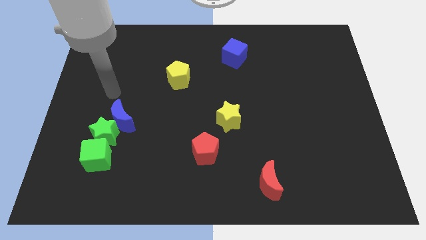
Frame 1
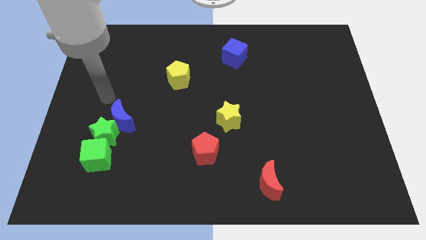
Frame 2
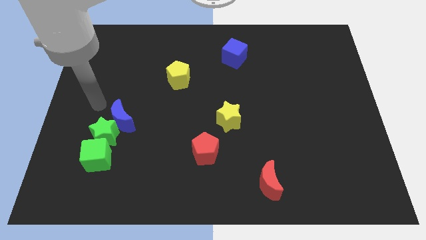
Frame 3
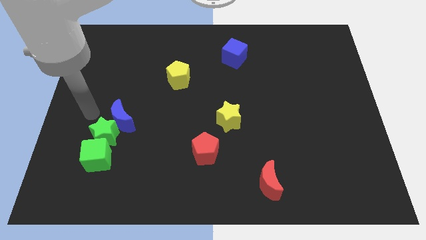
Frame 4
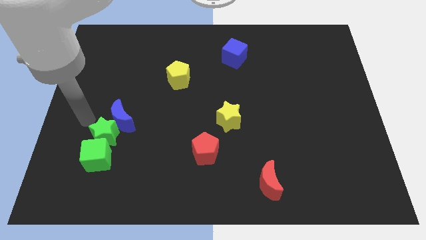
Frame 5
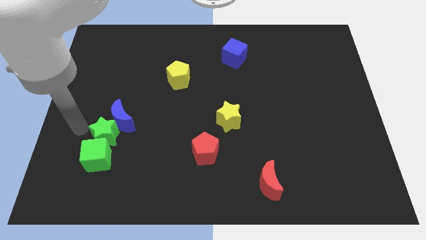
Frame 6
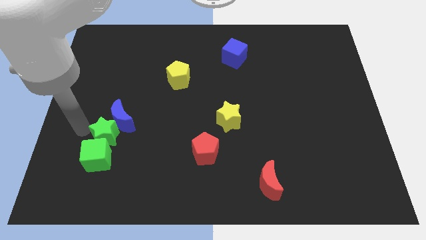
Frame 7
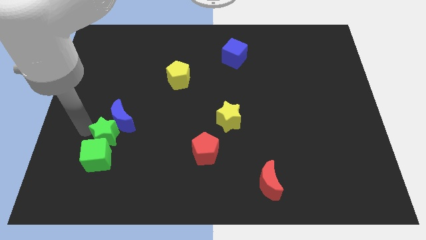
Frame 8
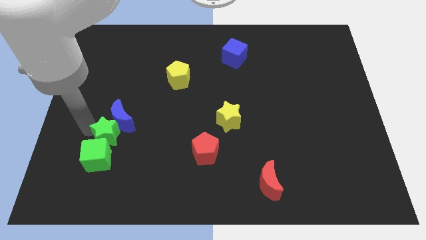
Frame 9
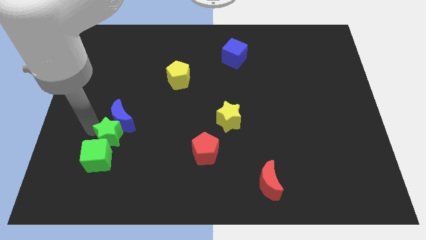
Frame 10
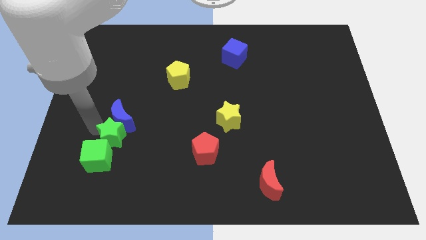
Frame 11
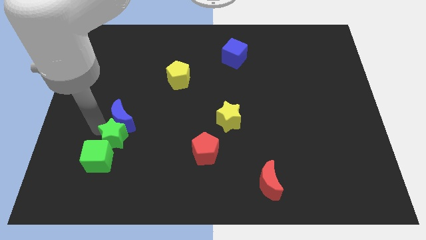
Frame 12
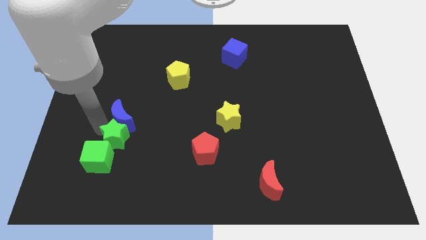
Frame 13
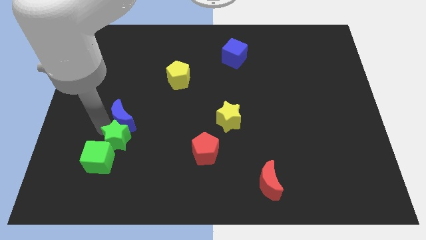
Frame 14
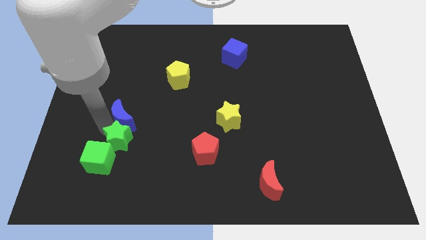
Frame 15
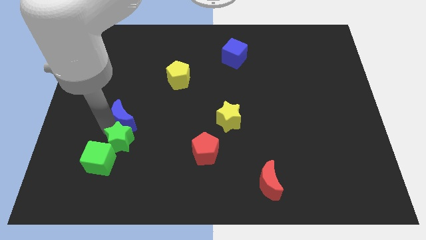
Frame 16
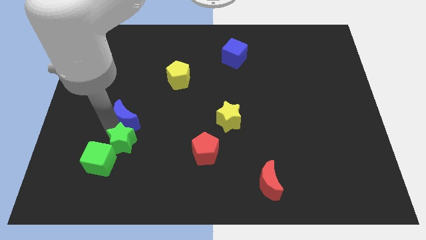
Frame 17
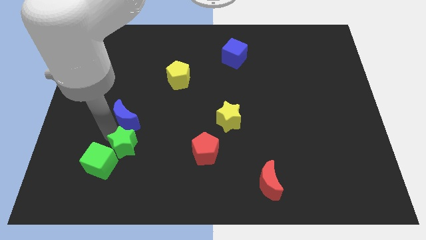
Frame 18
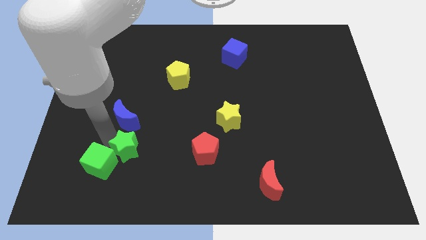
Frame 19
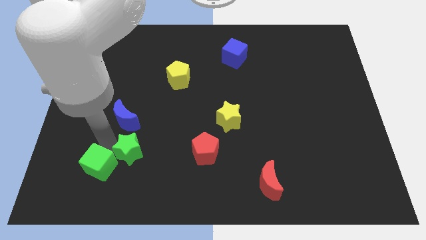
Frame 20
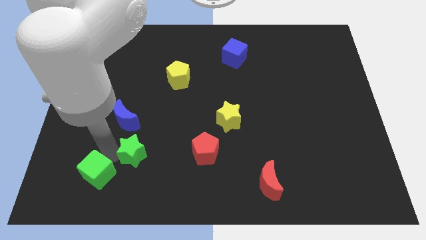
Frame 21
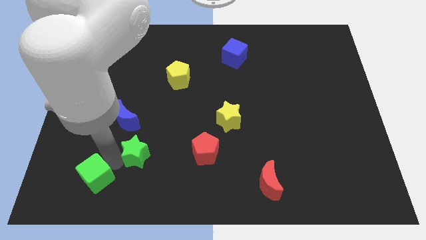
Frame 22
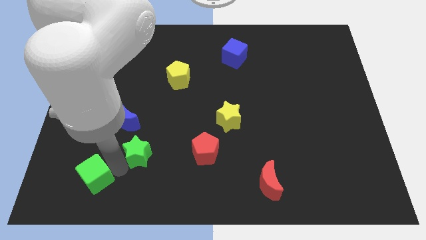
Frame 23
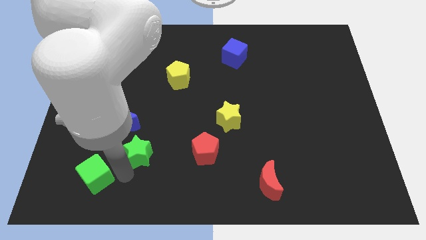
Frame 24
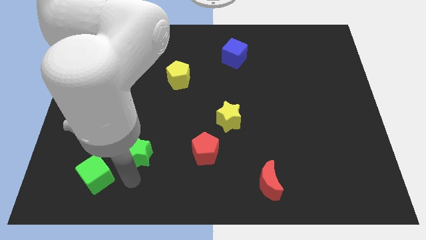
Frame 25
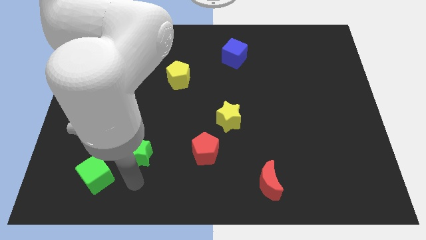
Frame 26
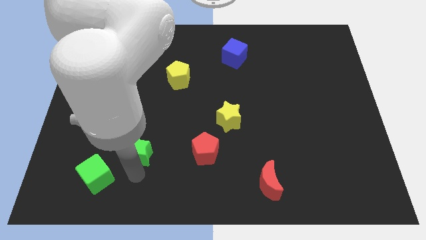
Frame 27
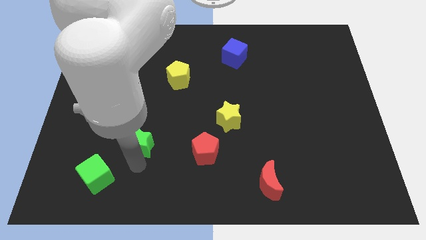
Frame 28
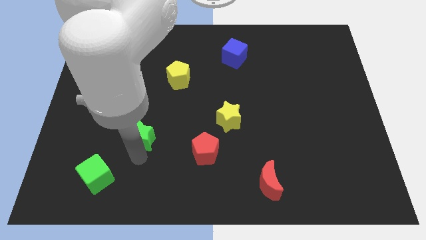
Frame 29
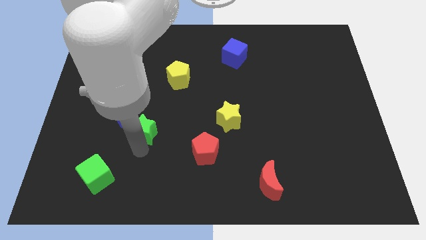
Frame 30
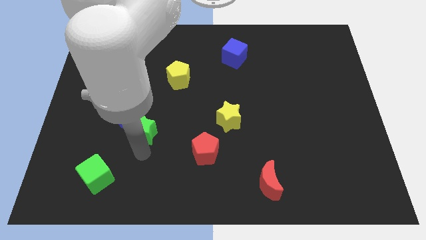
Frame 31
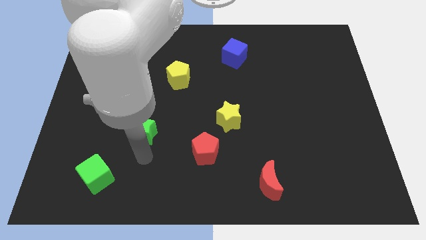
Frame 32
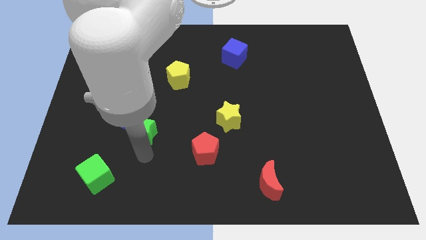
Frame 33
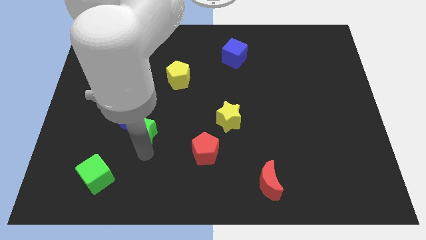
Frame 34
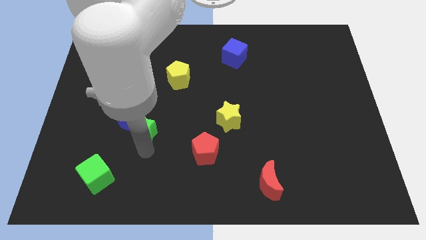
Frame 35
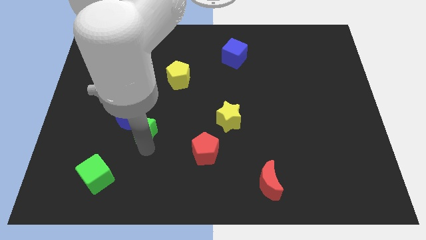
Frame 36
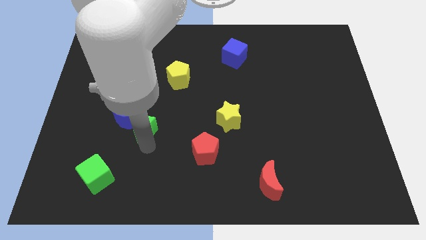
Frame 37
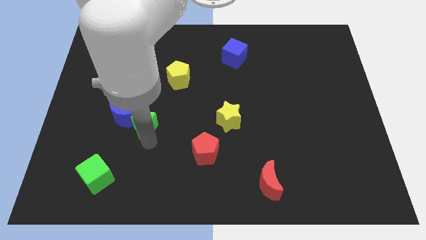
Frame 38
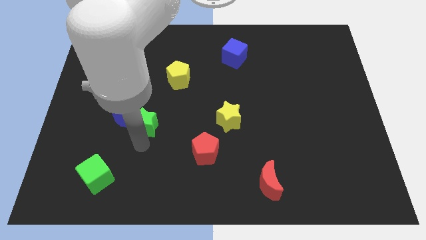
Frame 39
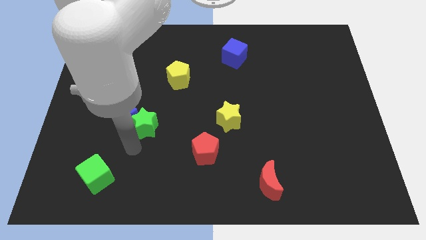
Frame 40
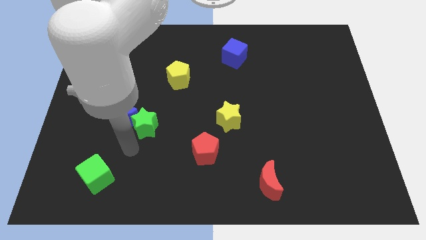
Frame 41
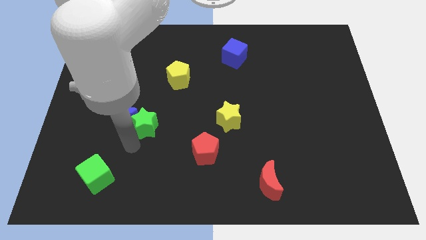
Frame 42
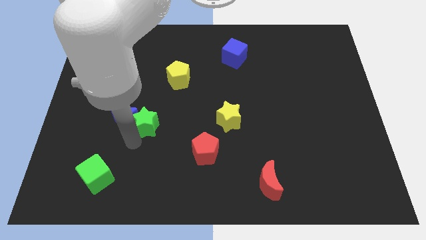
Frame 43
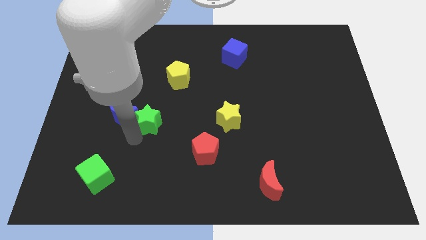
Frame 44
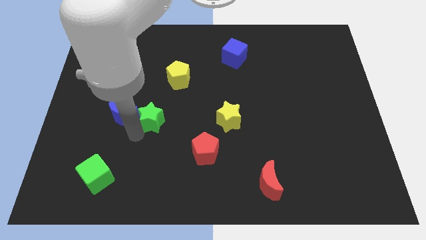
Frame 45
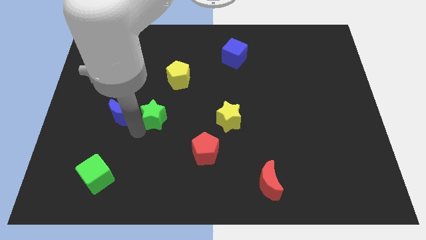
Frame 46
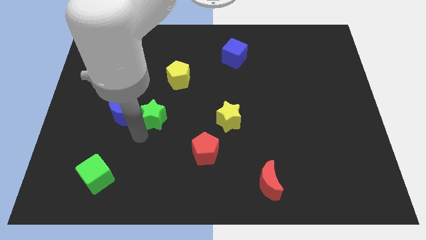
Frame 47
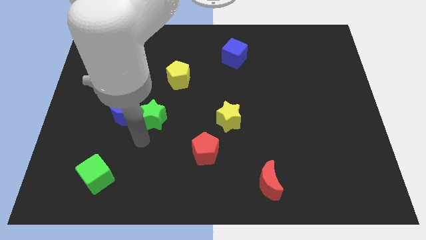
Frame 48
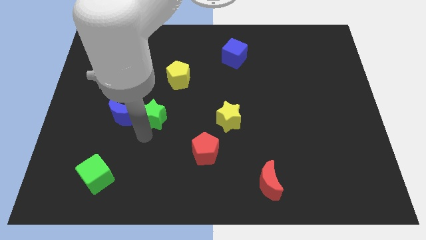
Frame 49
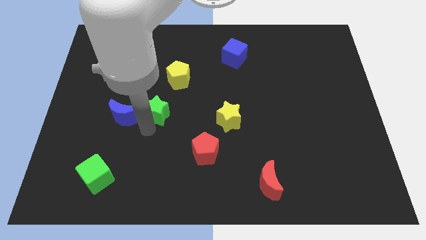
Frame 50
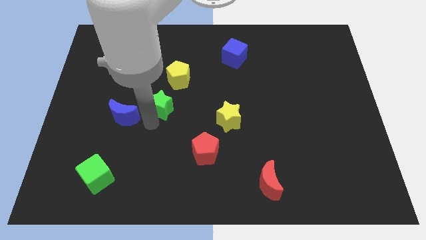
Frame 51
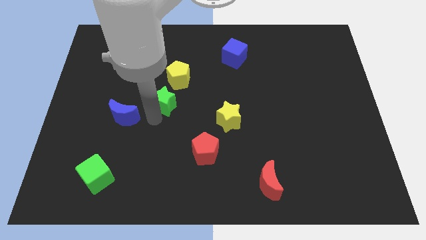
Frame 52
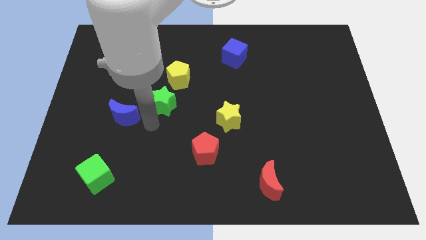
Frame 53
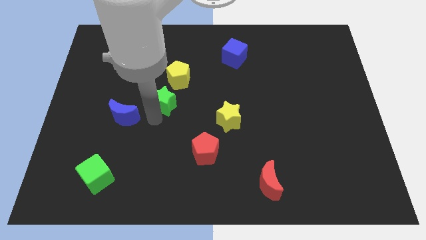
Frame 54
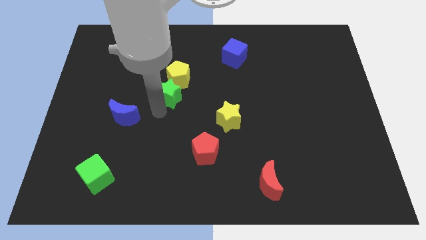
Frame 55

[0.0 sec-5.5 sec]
put the green star close to the yellow pentagon

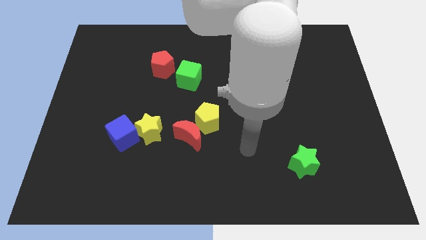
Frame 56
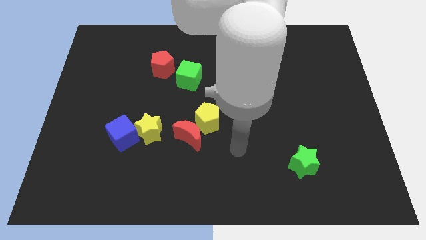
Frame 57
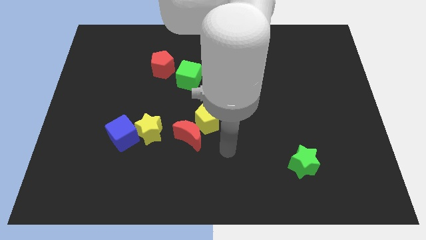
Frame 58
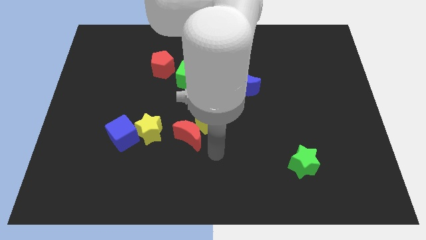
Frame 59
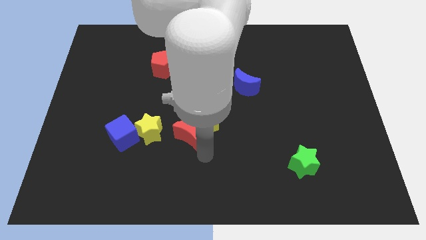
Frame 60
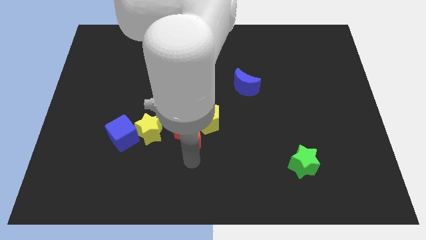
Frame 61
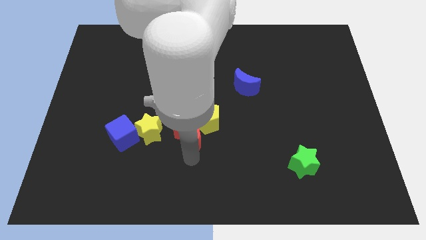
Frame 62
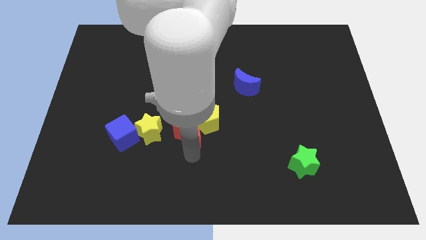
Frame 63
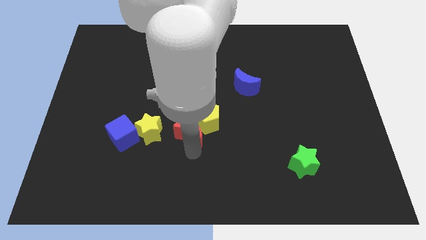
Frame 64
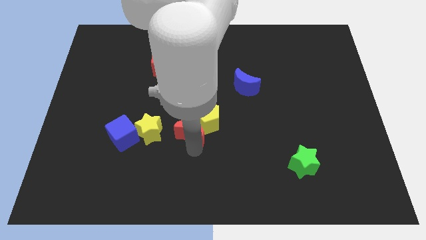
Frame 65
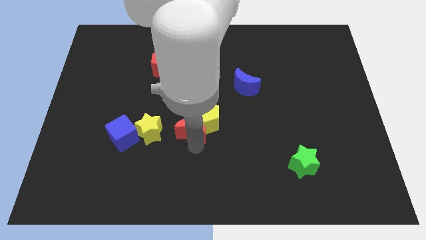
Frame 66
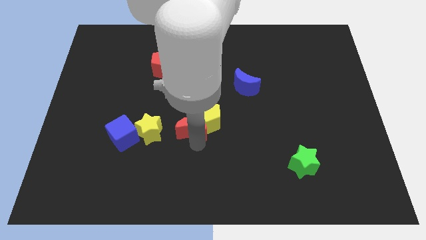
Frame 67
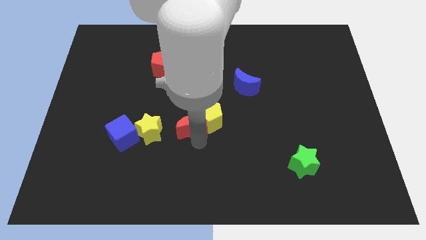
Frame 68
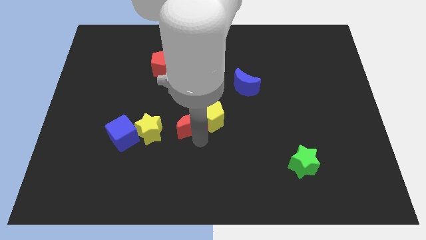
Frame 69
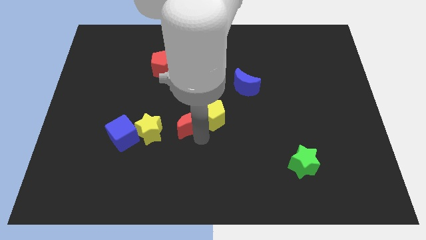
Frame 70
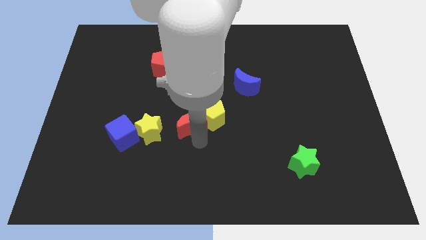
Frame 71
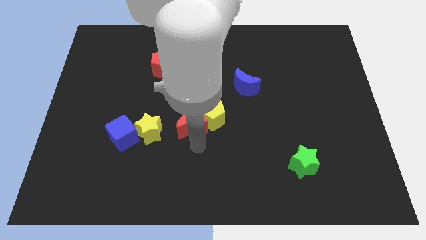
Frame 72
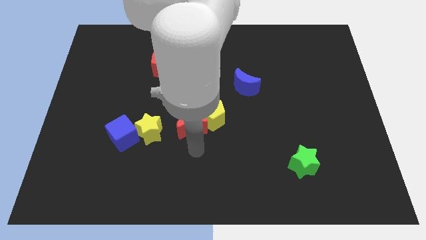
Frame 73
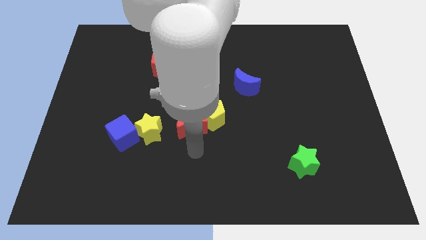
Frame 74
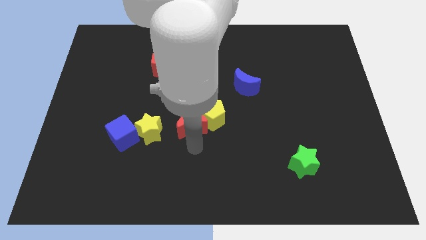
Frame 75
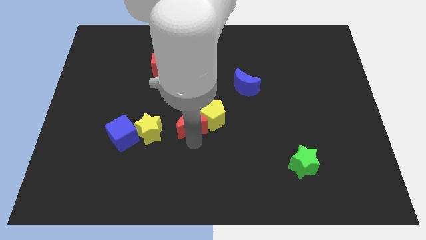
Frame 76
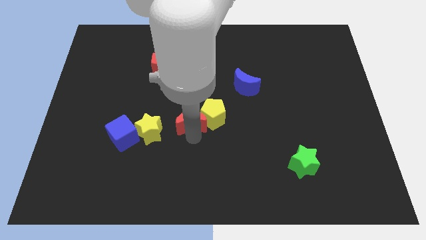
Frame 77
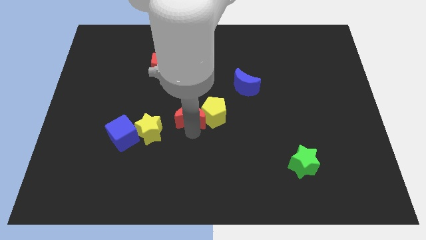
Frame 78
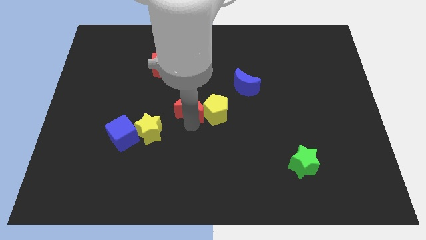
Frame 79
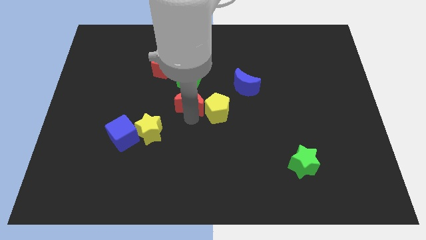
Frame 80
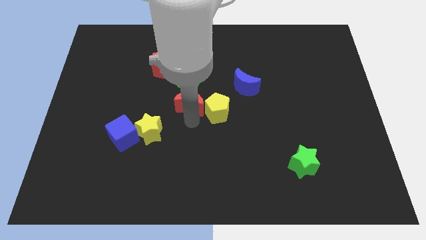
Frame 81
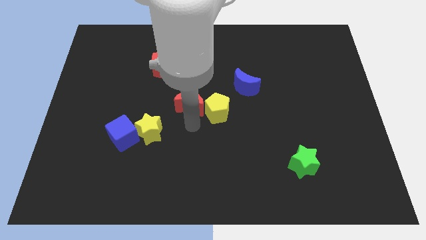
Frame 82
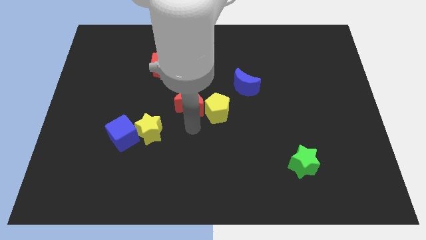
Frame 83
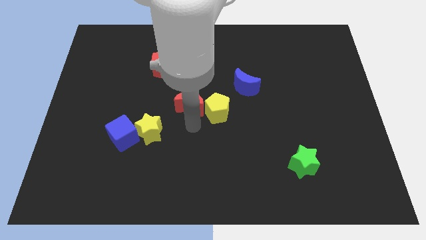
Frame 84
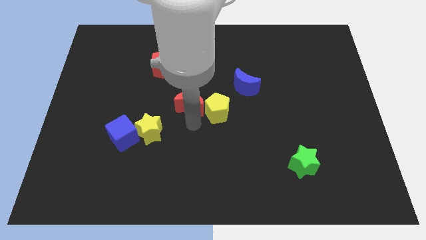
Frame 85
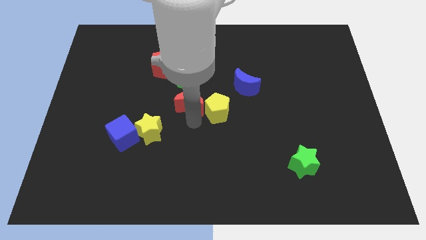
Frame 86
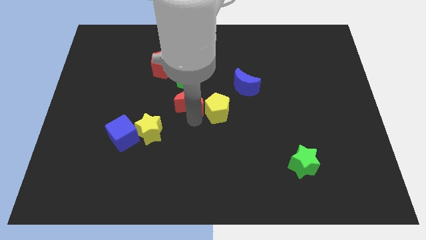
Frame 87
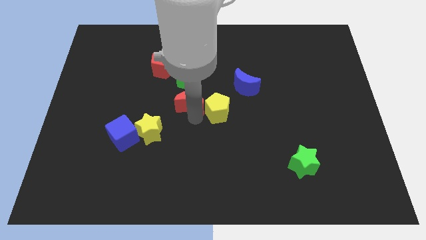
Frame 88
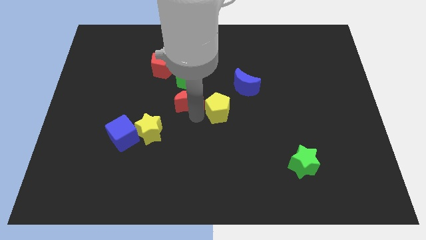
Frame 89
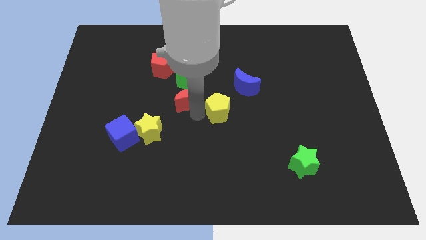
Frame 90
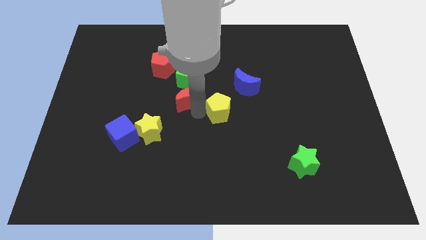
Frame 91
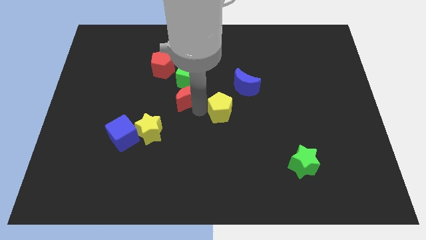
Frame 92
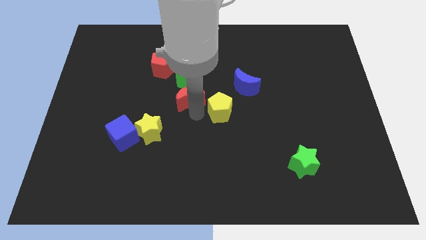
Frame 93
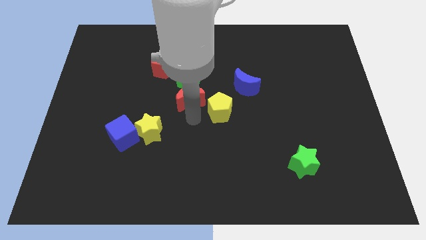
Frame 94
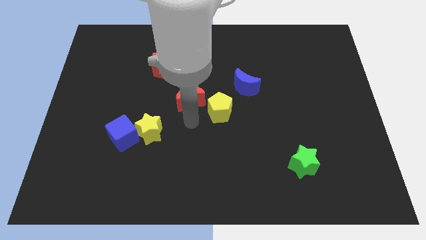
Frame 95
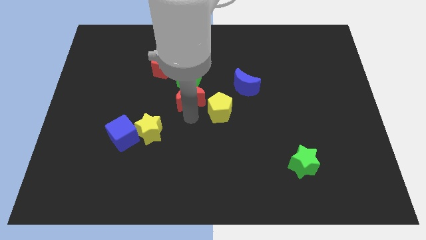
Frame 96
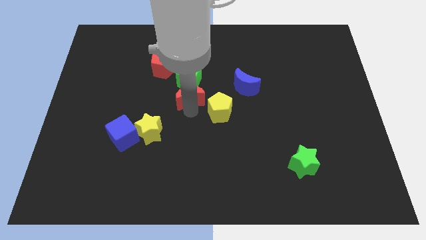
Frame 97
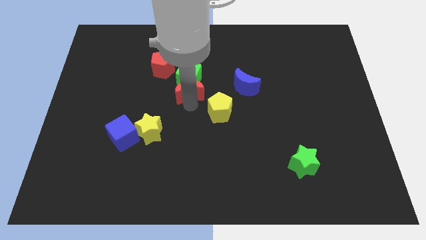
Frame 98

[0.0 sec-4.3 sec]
move the red moon next to the green cube
